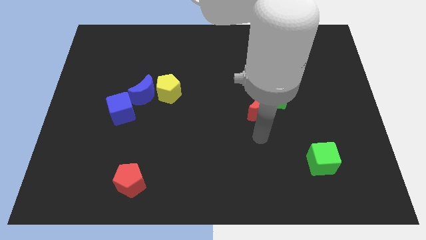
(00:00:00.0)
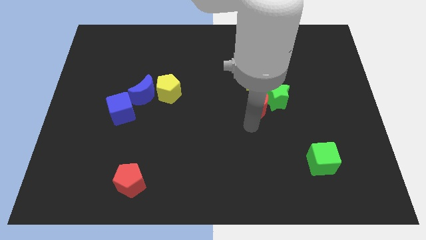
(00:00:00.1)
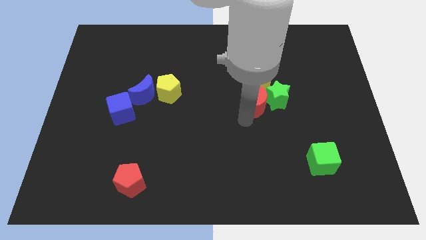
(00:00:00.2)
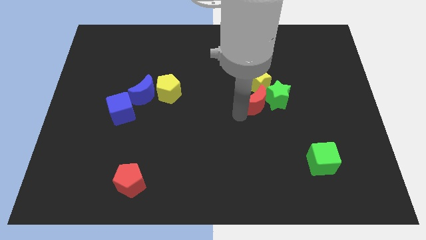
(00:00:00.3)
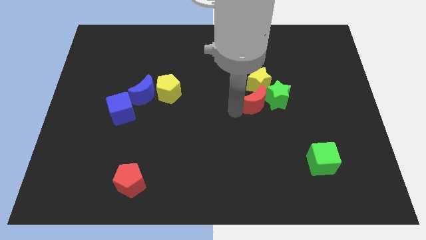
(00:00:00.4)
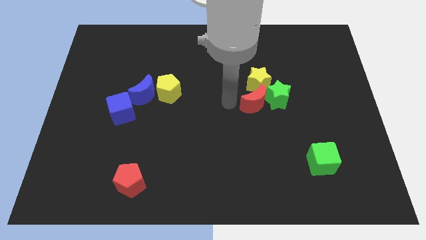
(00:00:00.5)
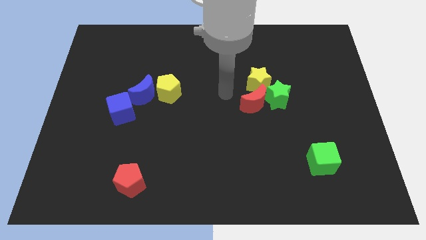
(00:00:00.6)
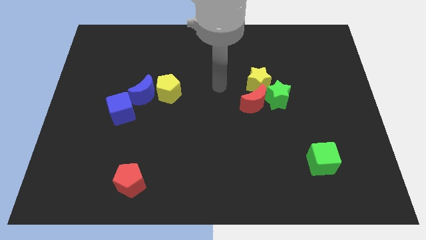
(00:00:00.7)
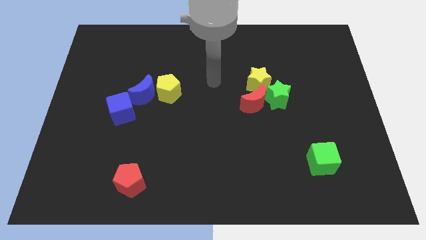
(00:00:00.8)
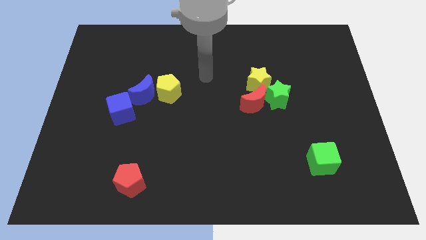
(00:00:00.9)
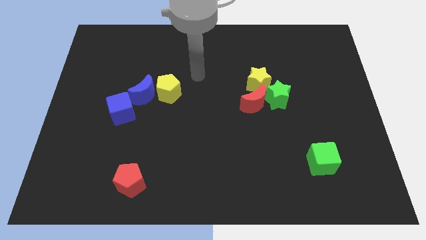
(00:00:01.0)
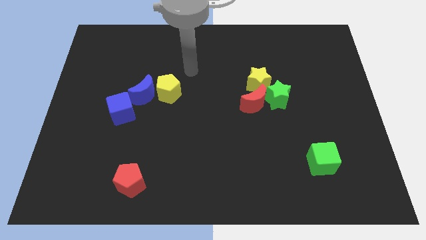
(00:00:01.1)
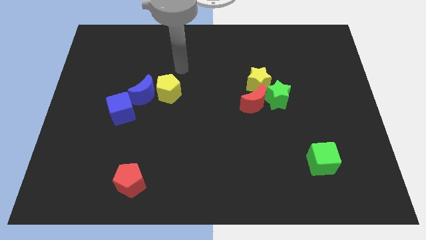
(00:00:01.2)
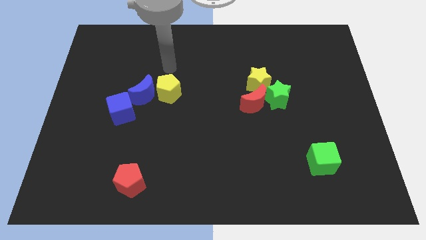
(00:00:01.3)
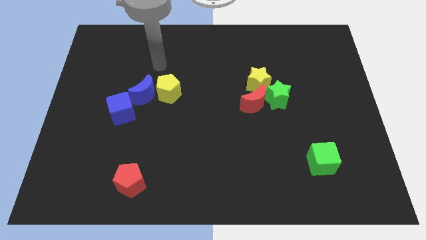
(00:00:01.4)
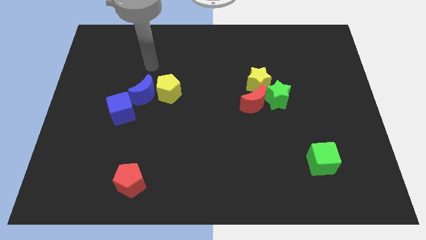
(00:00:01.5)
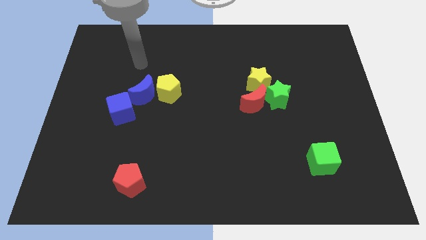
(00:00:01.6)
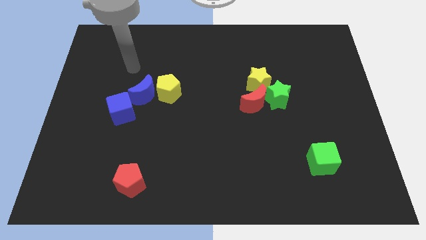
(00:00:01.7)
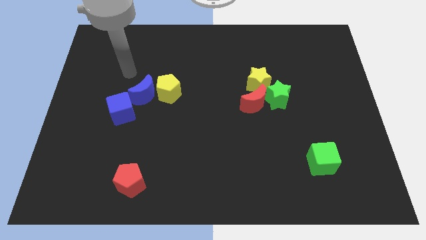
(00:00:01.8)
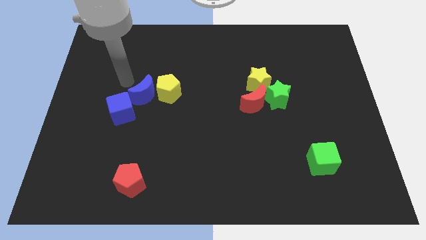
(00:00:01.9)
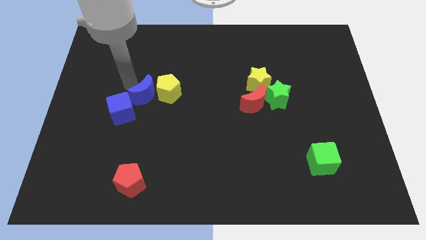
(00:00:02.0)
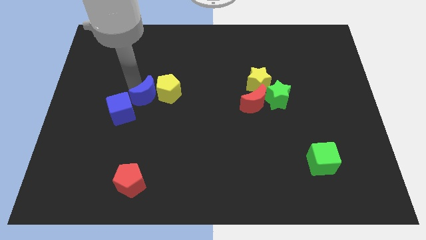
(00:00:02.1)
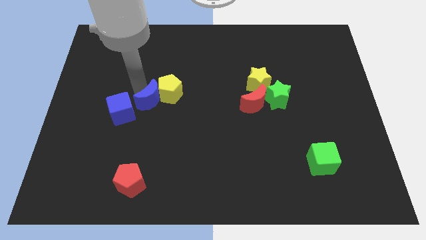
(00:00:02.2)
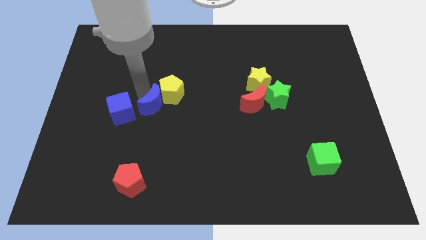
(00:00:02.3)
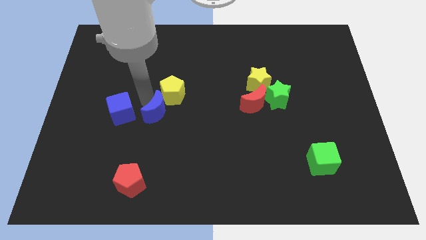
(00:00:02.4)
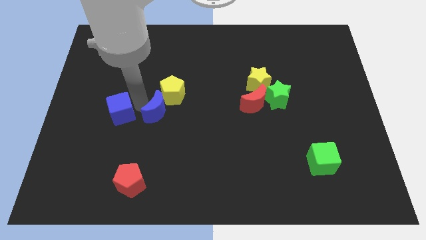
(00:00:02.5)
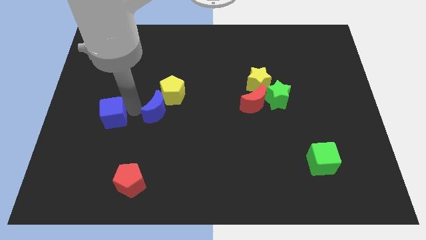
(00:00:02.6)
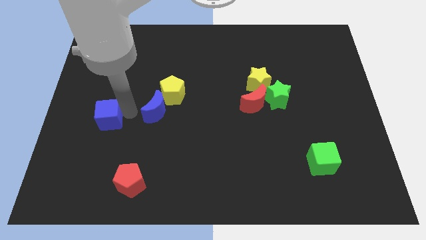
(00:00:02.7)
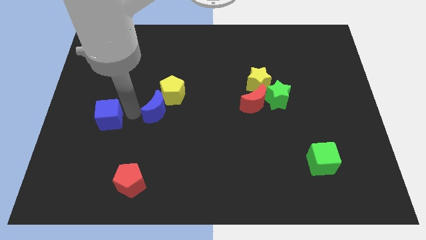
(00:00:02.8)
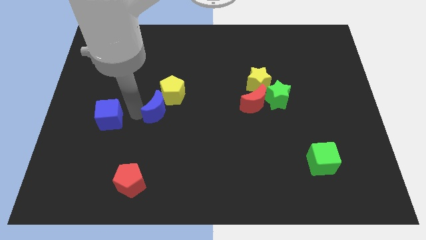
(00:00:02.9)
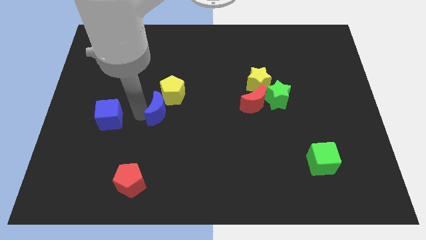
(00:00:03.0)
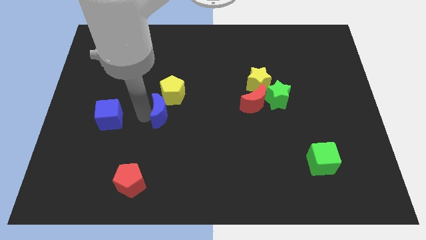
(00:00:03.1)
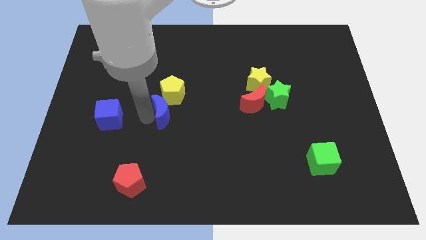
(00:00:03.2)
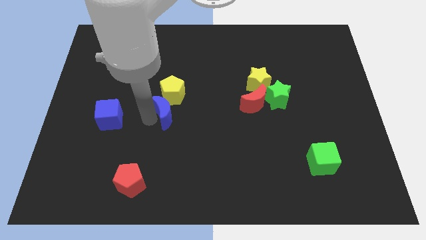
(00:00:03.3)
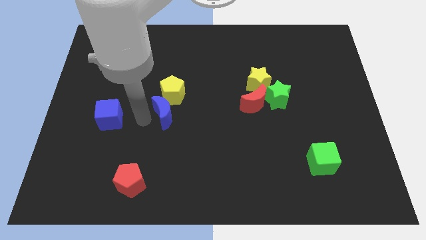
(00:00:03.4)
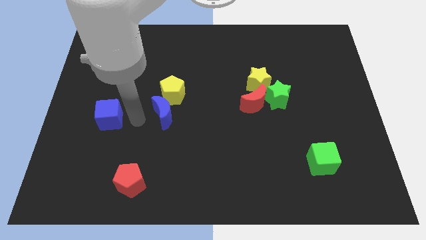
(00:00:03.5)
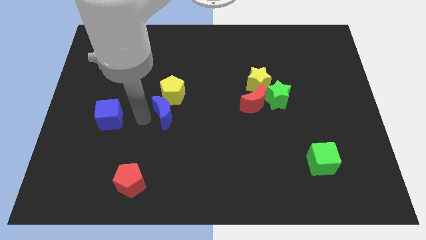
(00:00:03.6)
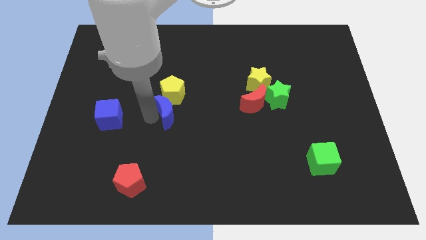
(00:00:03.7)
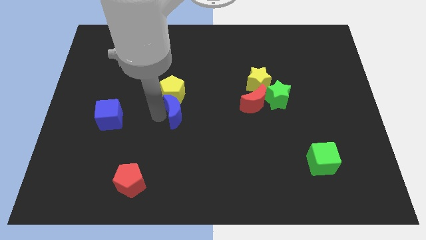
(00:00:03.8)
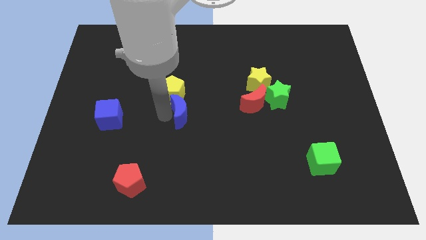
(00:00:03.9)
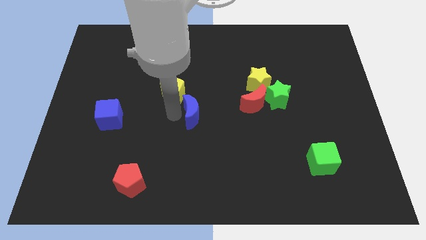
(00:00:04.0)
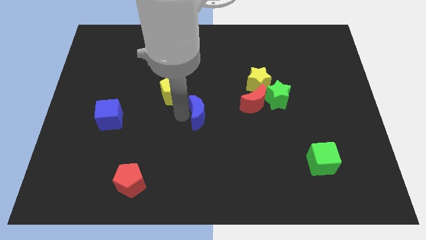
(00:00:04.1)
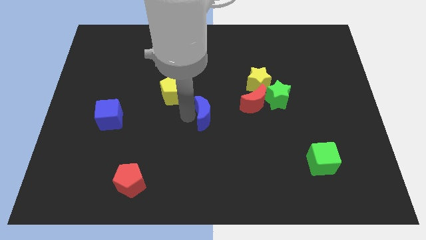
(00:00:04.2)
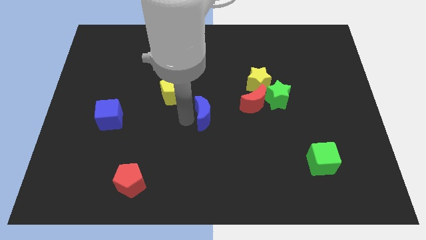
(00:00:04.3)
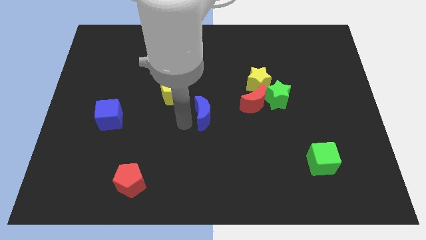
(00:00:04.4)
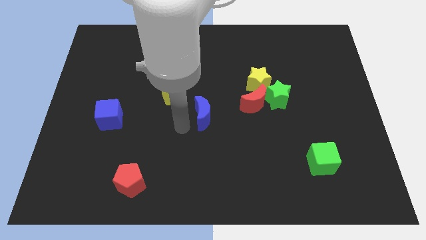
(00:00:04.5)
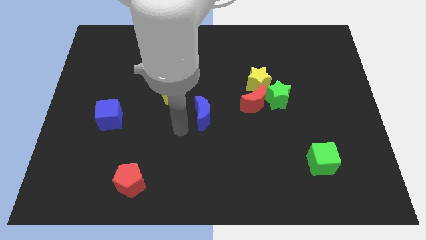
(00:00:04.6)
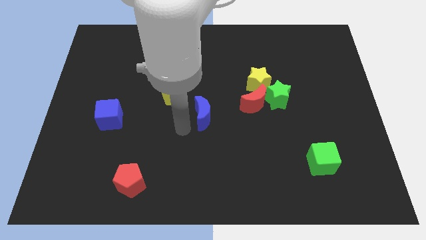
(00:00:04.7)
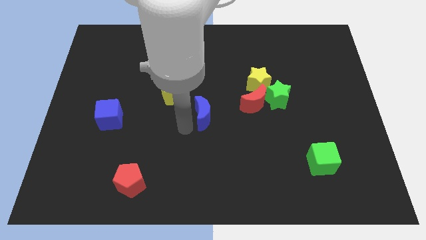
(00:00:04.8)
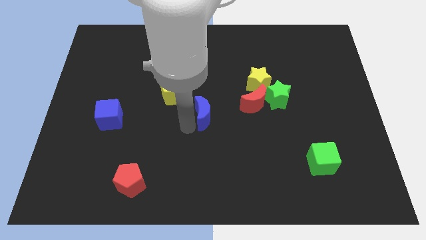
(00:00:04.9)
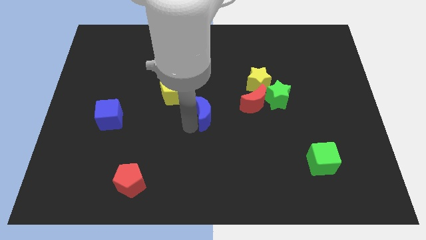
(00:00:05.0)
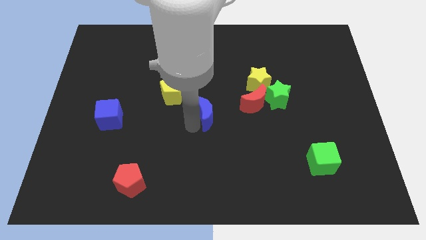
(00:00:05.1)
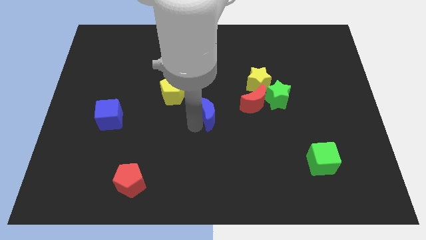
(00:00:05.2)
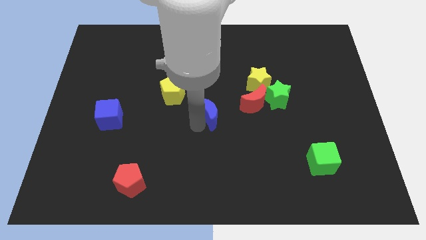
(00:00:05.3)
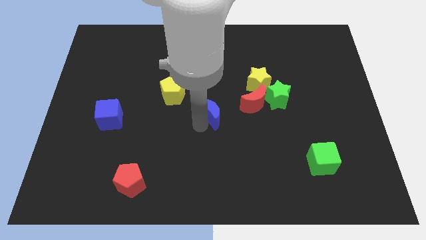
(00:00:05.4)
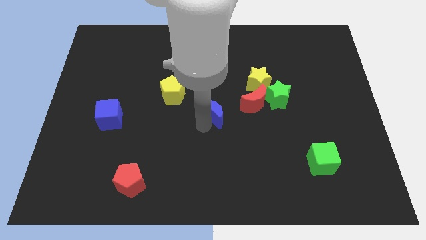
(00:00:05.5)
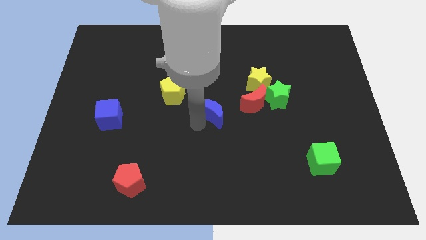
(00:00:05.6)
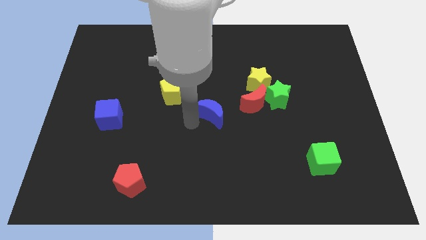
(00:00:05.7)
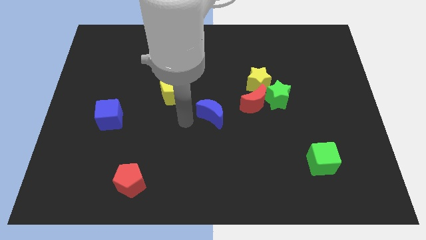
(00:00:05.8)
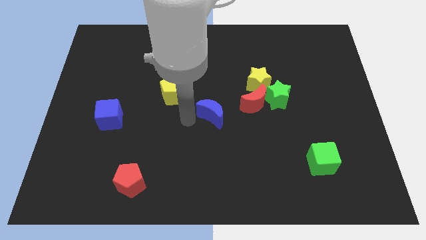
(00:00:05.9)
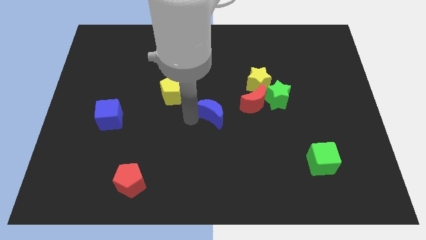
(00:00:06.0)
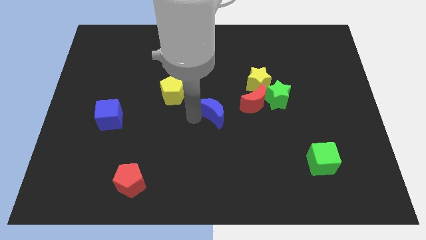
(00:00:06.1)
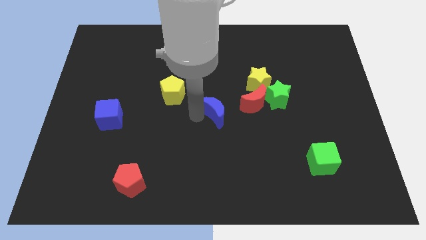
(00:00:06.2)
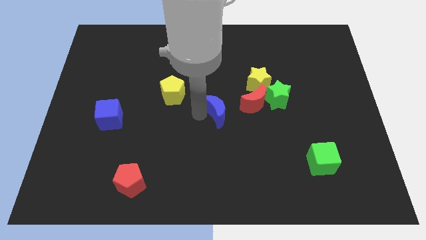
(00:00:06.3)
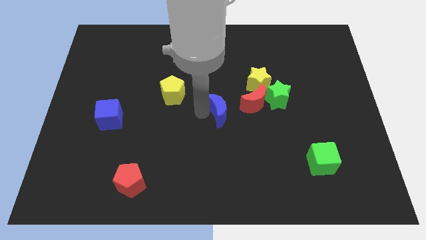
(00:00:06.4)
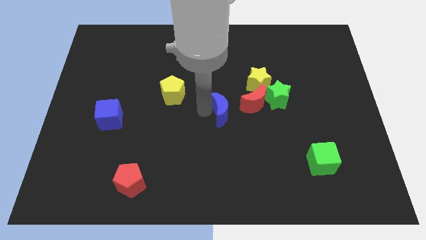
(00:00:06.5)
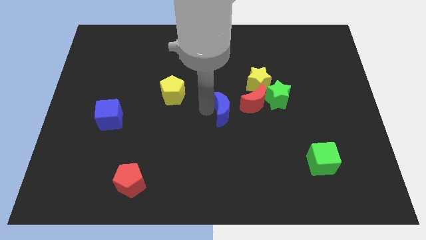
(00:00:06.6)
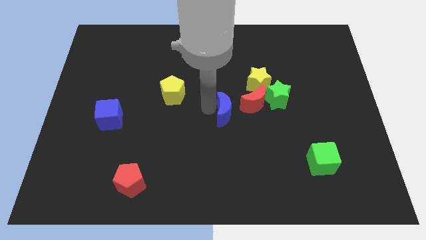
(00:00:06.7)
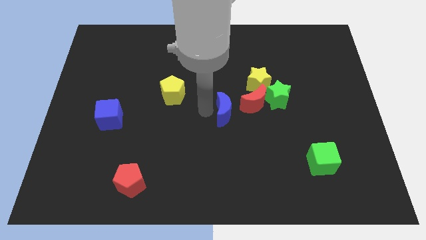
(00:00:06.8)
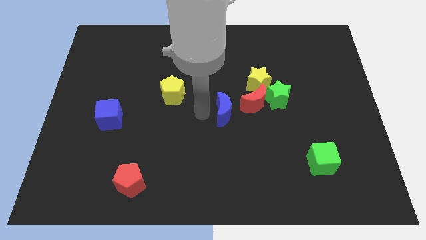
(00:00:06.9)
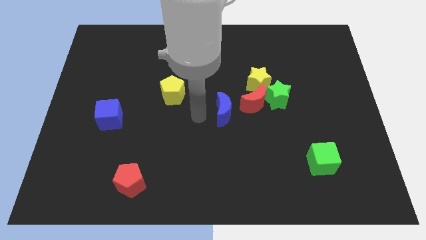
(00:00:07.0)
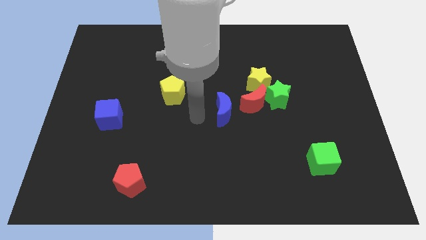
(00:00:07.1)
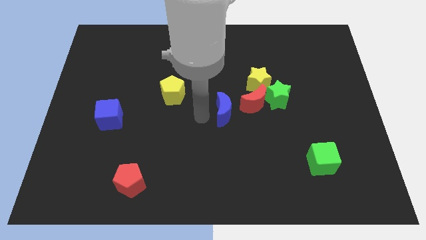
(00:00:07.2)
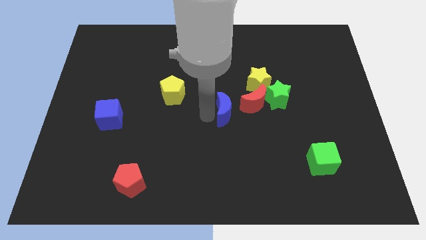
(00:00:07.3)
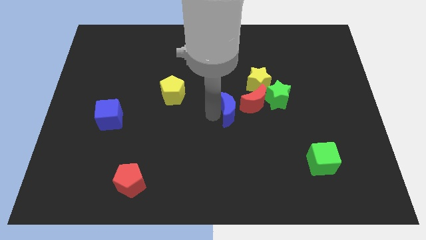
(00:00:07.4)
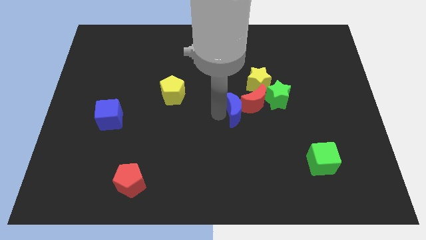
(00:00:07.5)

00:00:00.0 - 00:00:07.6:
move the blue moon towards the red moon
